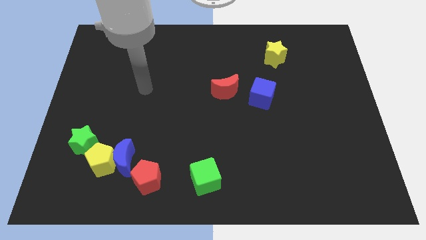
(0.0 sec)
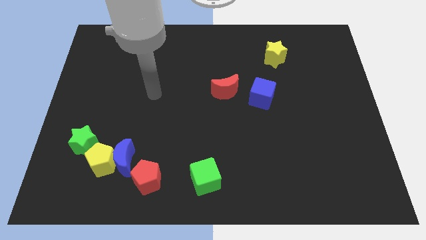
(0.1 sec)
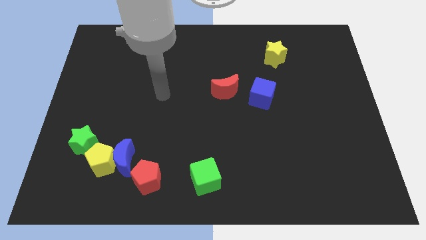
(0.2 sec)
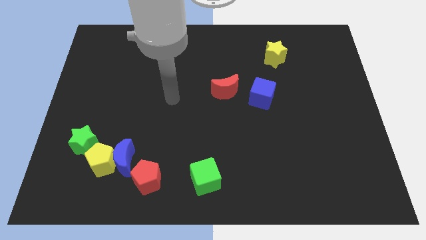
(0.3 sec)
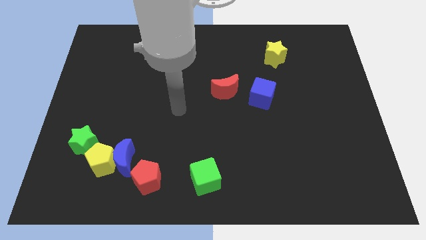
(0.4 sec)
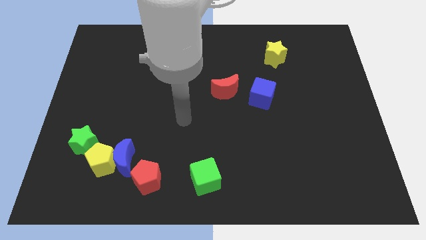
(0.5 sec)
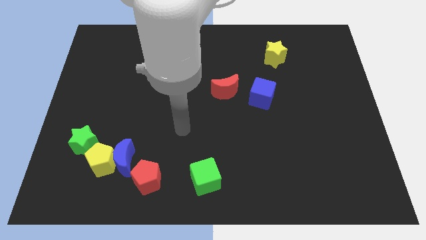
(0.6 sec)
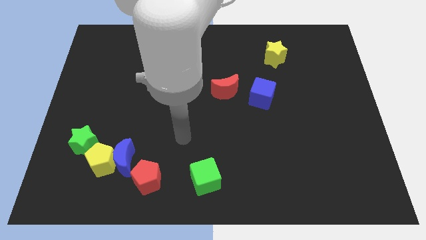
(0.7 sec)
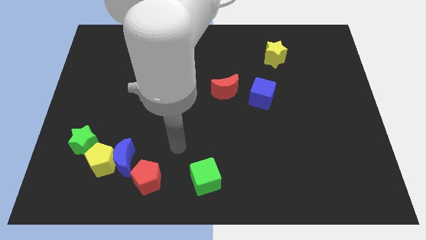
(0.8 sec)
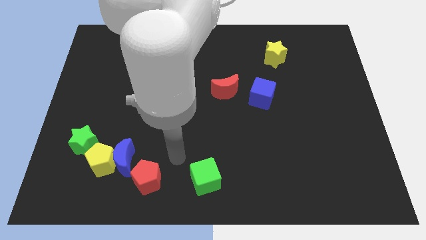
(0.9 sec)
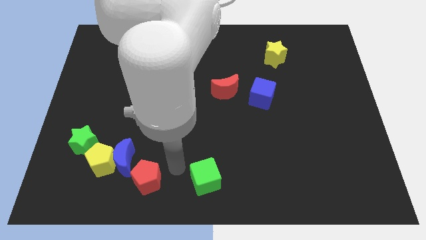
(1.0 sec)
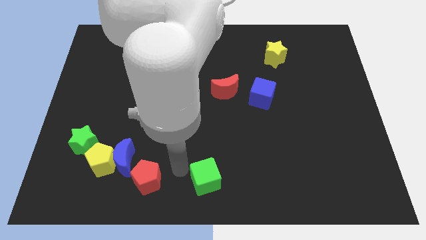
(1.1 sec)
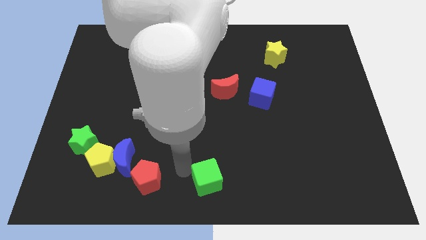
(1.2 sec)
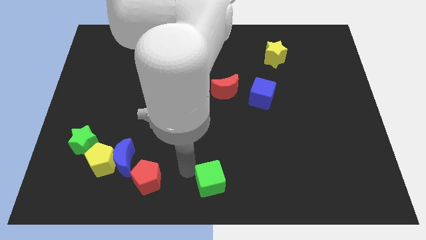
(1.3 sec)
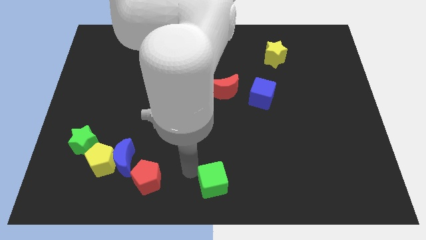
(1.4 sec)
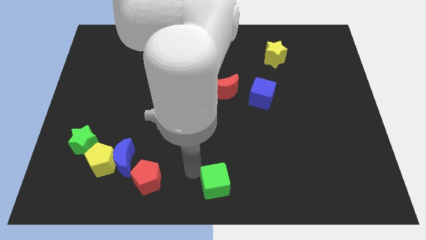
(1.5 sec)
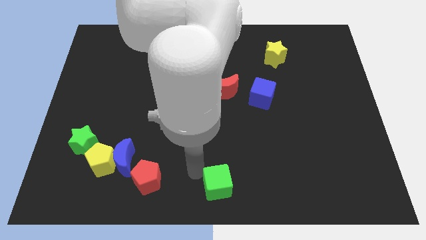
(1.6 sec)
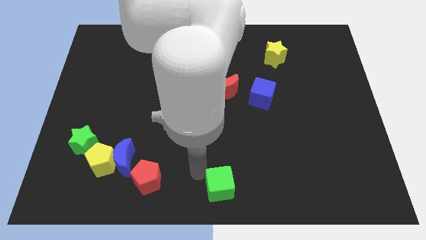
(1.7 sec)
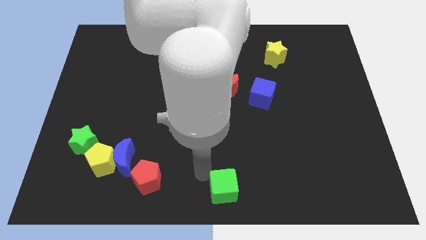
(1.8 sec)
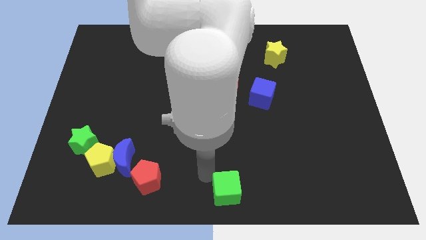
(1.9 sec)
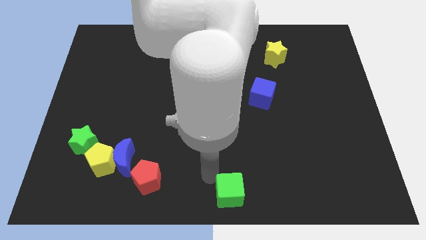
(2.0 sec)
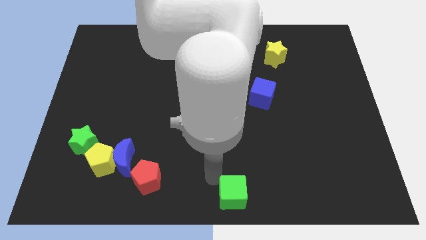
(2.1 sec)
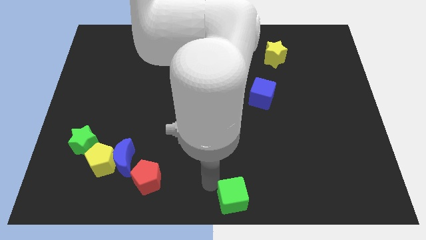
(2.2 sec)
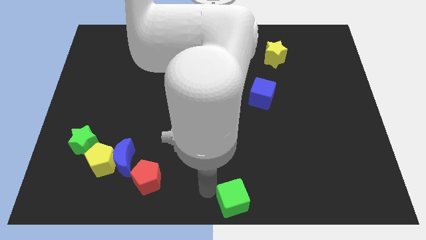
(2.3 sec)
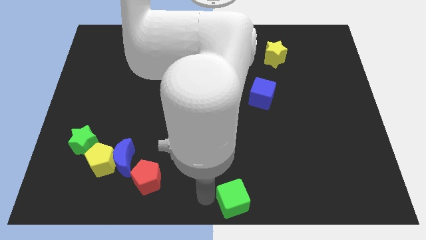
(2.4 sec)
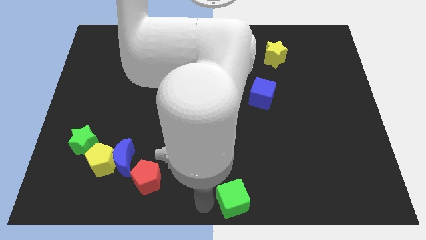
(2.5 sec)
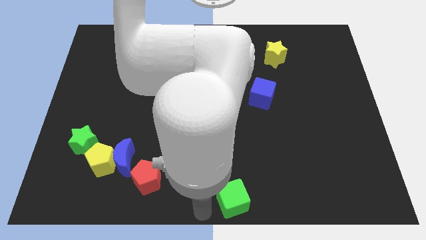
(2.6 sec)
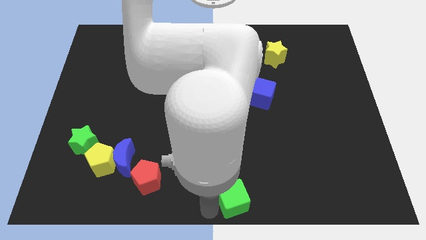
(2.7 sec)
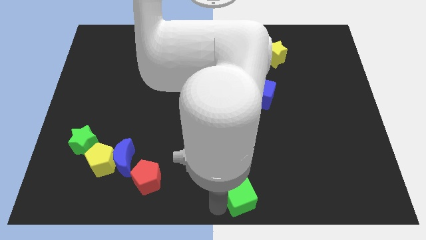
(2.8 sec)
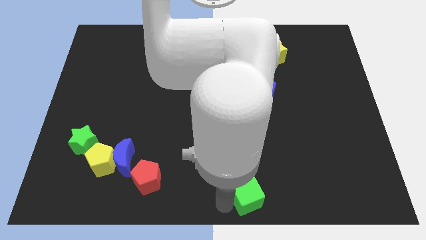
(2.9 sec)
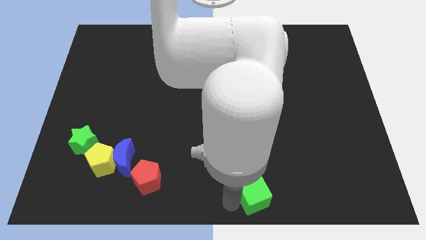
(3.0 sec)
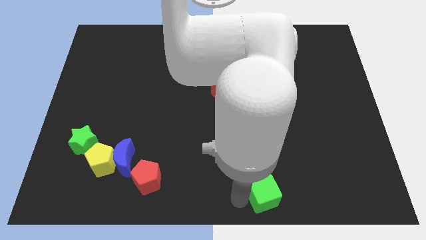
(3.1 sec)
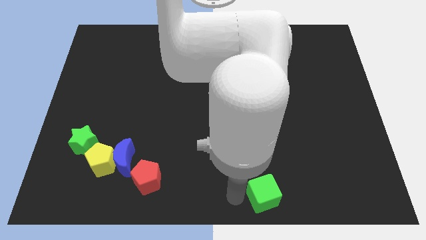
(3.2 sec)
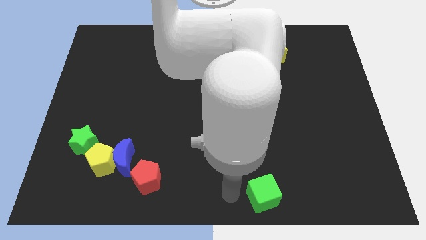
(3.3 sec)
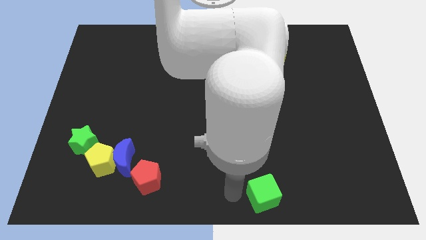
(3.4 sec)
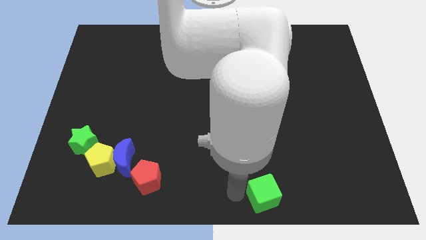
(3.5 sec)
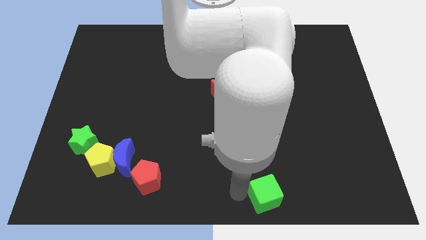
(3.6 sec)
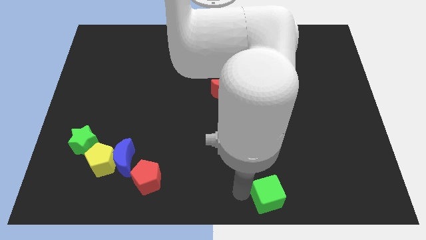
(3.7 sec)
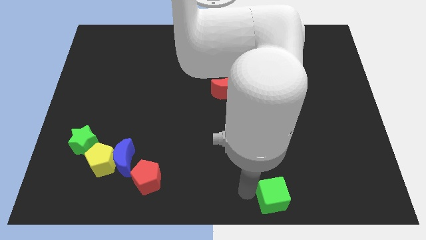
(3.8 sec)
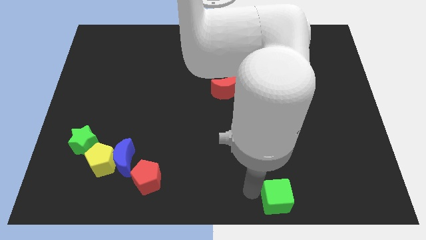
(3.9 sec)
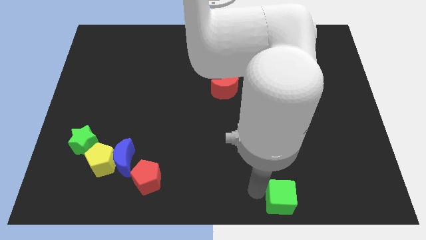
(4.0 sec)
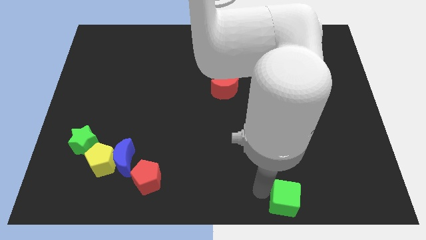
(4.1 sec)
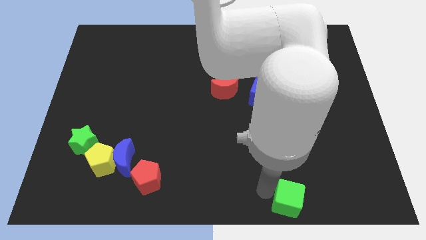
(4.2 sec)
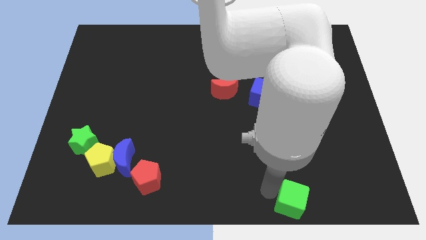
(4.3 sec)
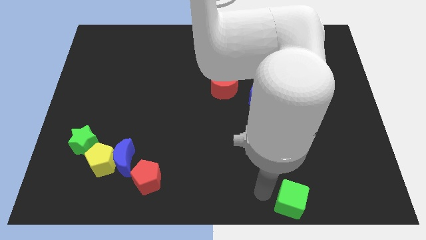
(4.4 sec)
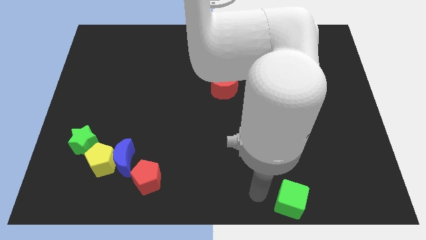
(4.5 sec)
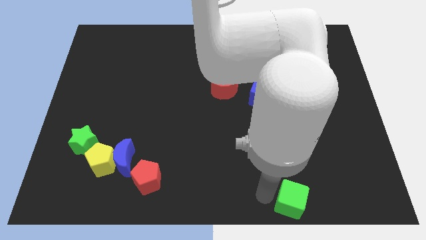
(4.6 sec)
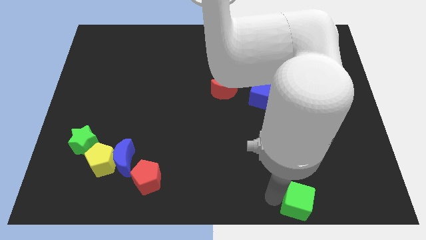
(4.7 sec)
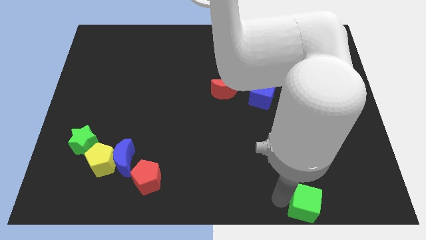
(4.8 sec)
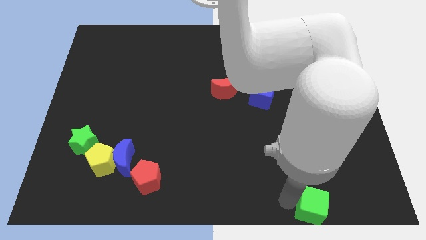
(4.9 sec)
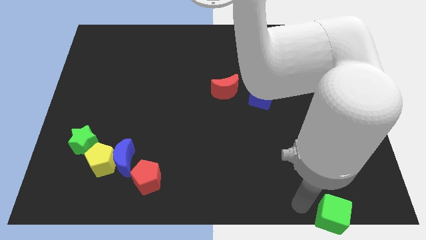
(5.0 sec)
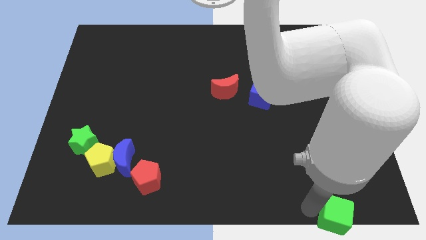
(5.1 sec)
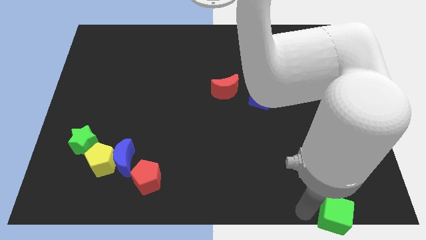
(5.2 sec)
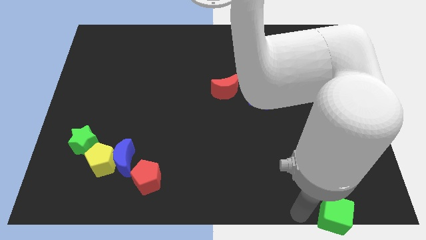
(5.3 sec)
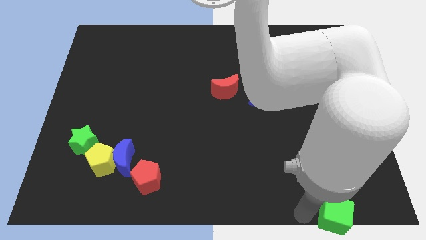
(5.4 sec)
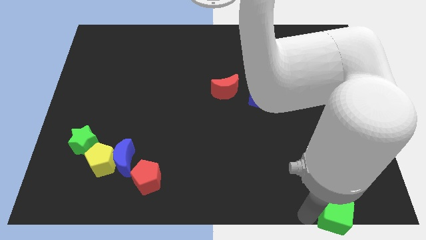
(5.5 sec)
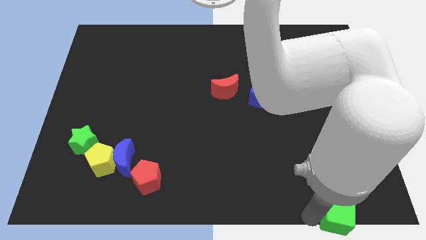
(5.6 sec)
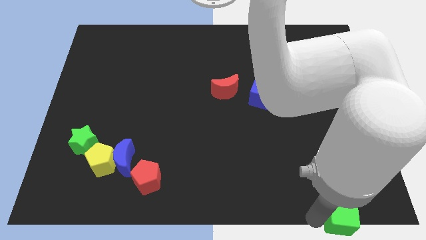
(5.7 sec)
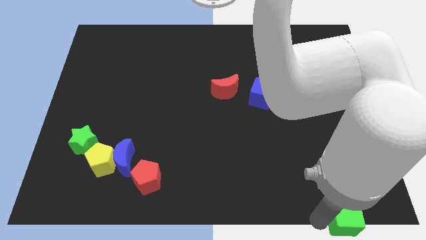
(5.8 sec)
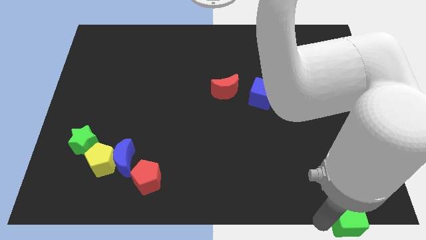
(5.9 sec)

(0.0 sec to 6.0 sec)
slide the green cube to the bottom right corner
